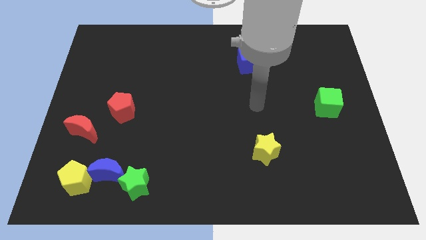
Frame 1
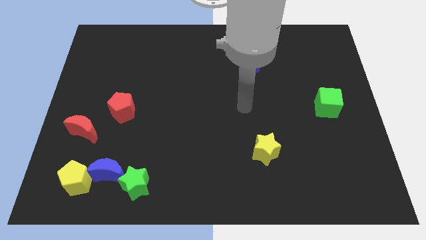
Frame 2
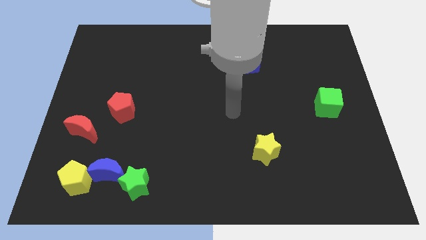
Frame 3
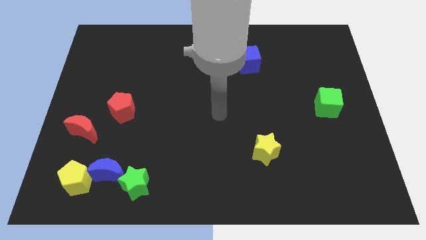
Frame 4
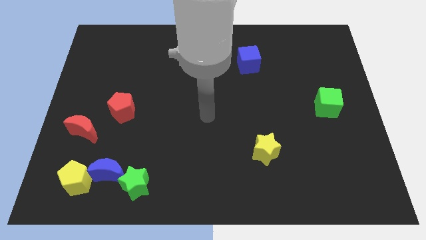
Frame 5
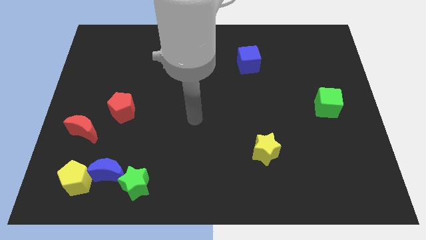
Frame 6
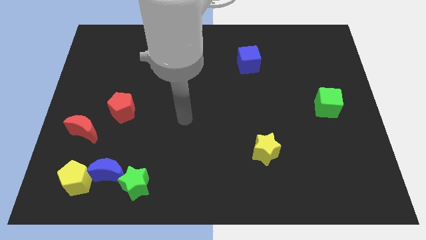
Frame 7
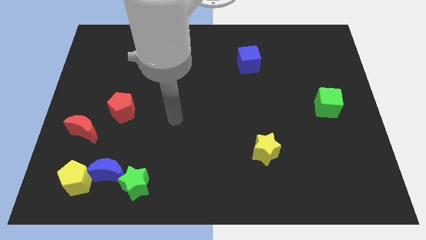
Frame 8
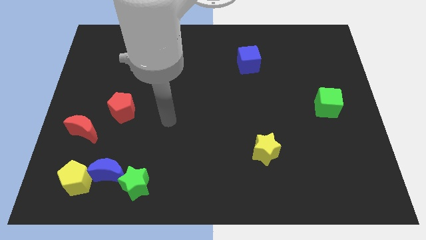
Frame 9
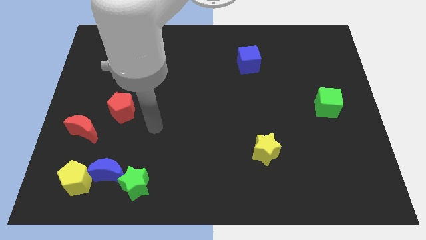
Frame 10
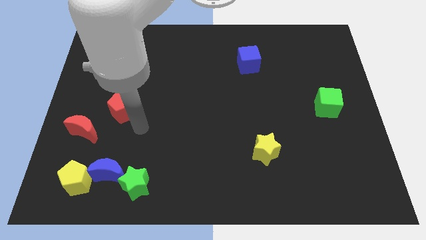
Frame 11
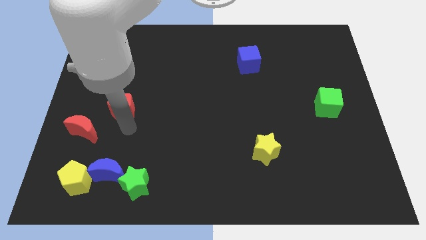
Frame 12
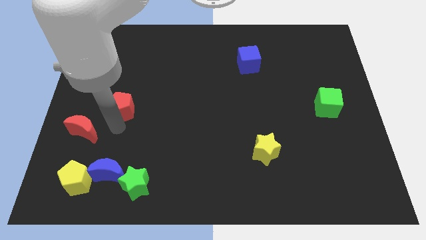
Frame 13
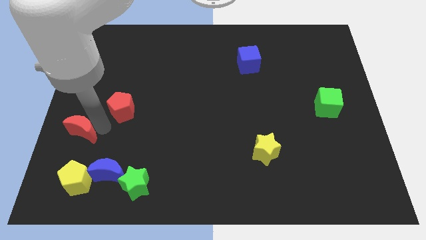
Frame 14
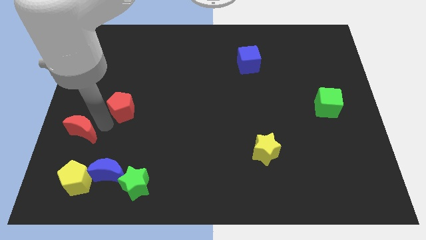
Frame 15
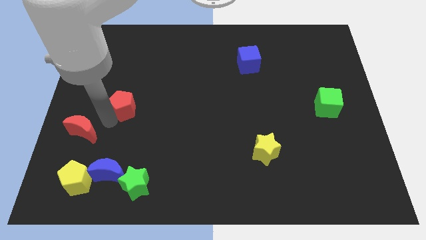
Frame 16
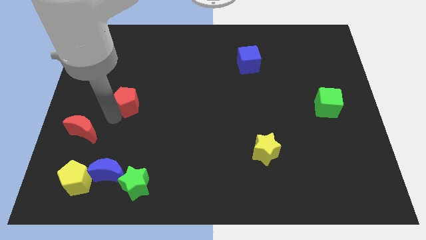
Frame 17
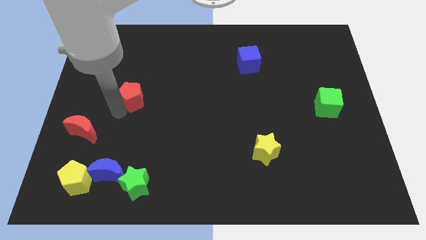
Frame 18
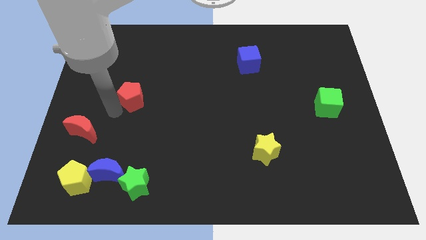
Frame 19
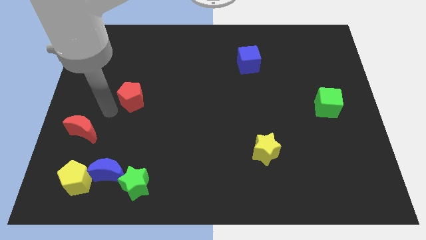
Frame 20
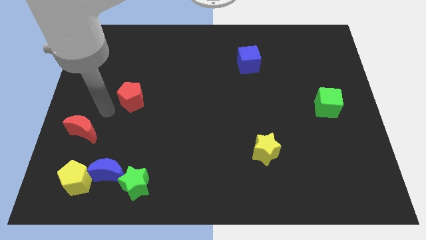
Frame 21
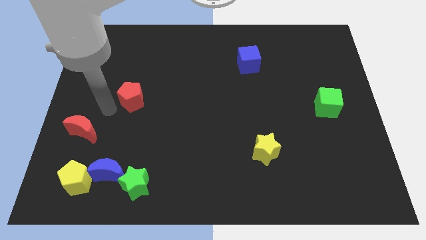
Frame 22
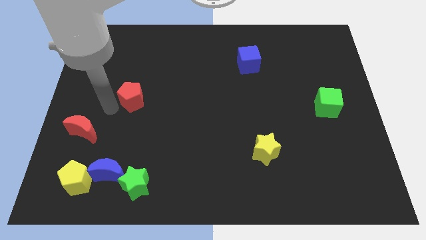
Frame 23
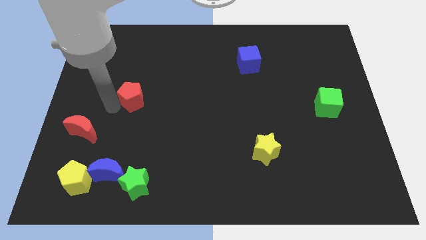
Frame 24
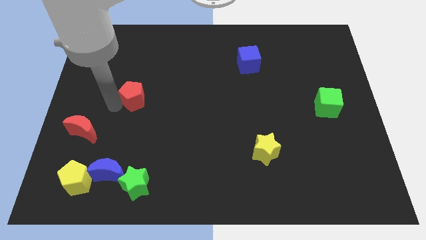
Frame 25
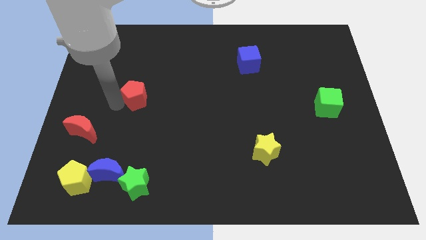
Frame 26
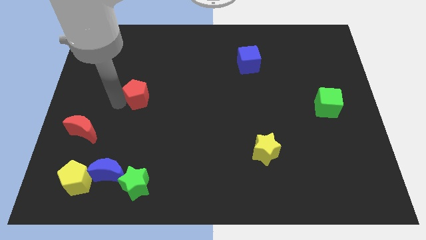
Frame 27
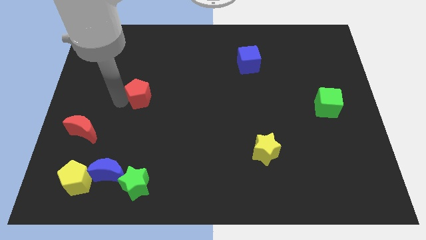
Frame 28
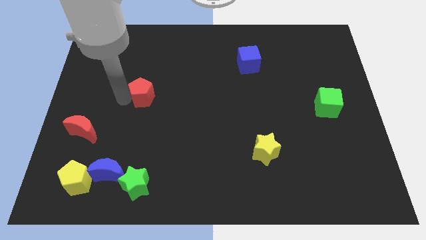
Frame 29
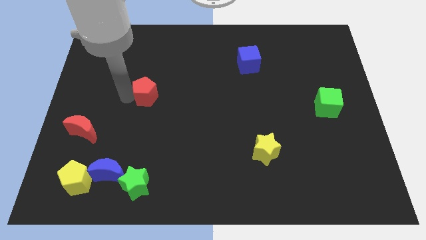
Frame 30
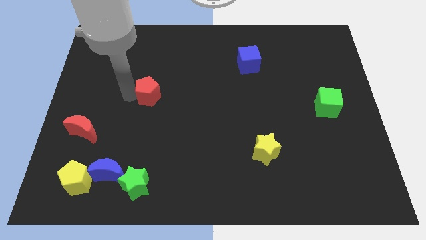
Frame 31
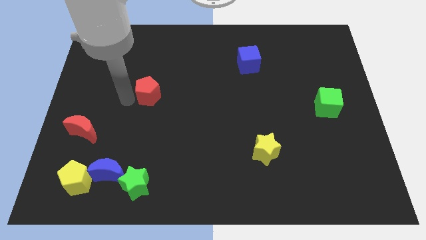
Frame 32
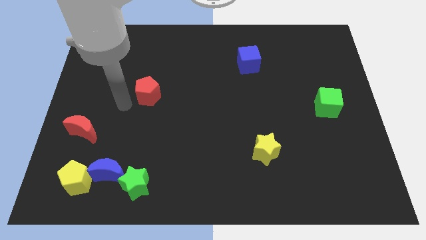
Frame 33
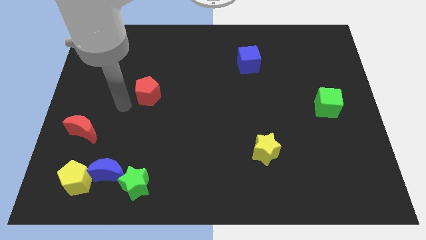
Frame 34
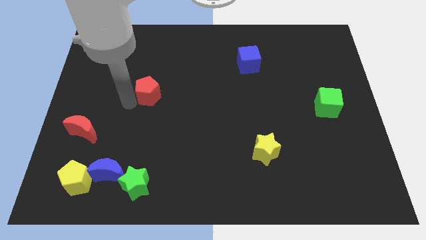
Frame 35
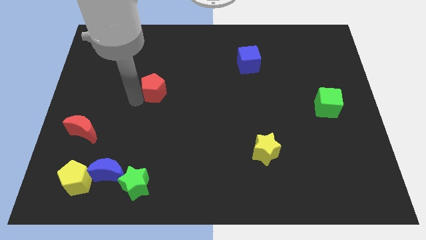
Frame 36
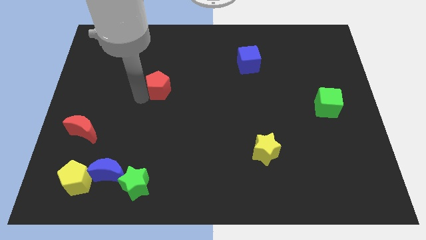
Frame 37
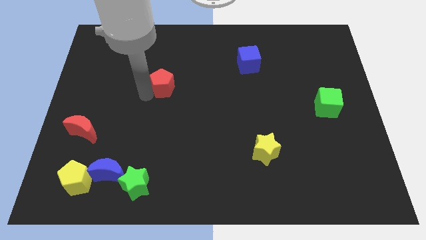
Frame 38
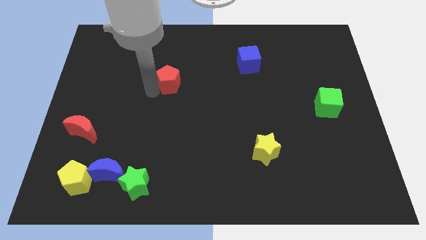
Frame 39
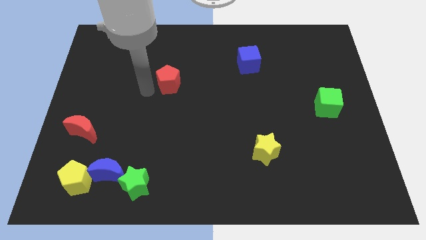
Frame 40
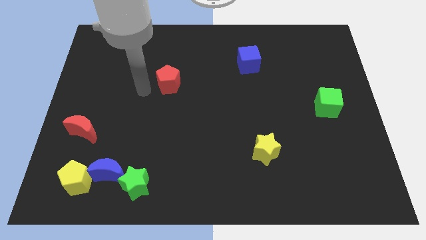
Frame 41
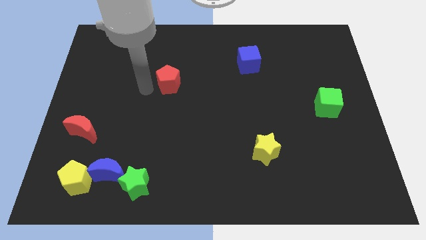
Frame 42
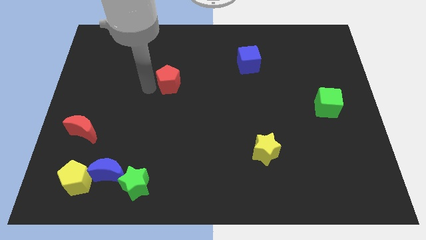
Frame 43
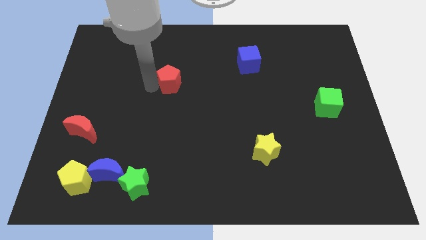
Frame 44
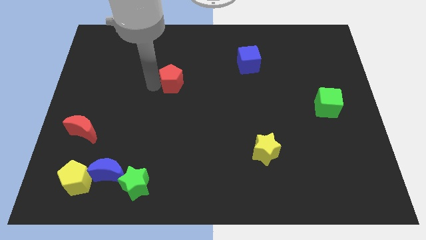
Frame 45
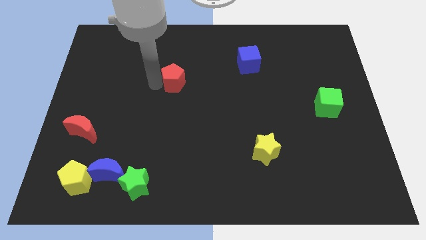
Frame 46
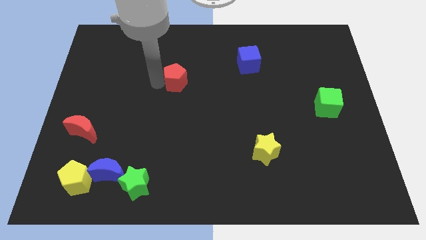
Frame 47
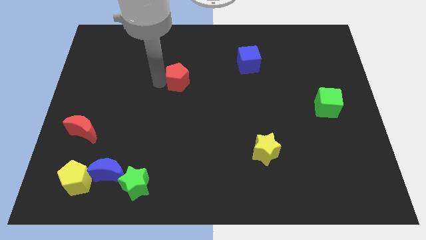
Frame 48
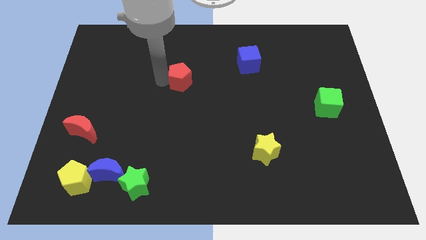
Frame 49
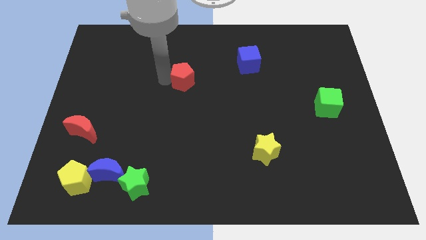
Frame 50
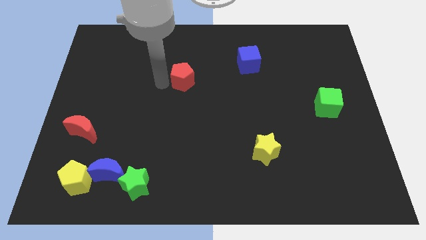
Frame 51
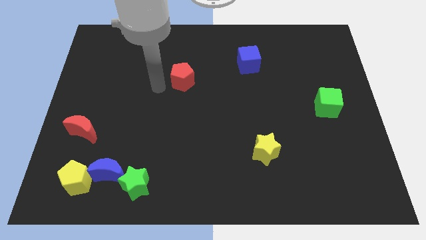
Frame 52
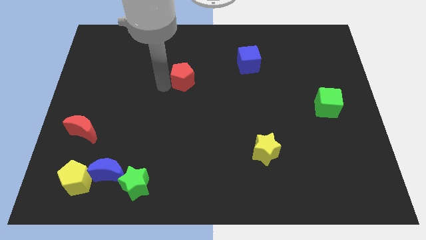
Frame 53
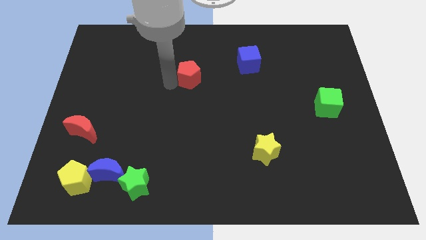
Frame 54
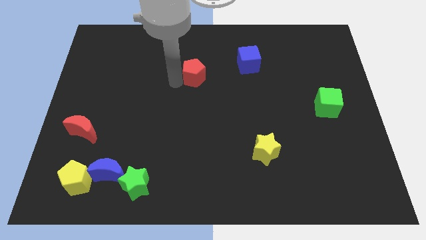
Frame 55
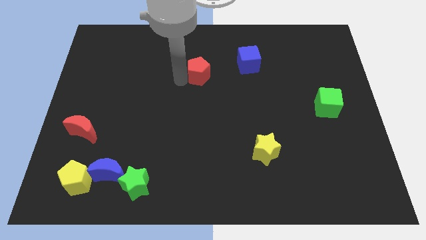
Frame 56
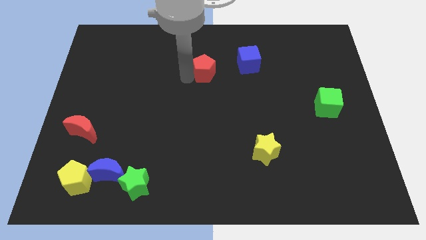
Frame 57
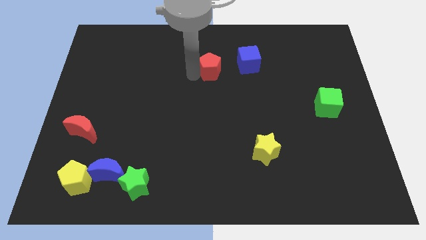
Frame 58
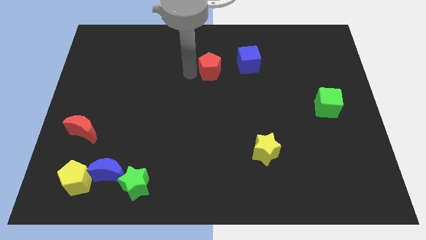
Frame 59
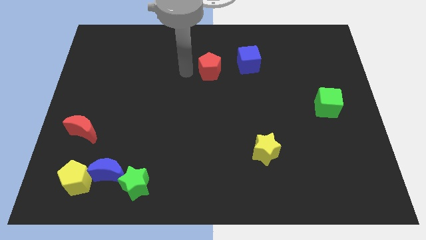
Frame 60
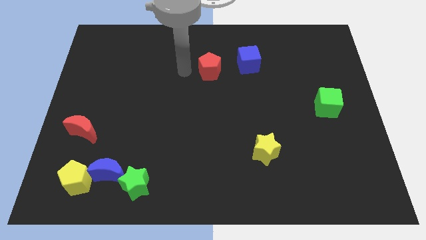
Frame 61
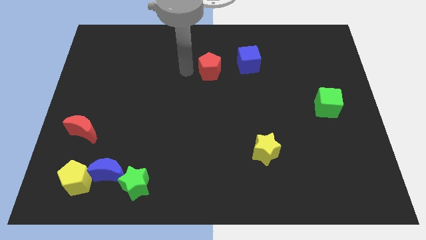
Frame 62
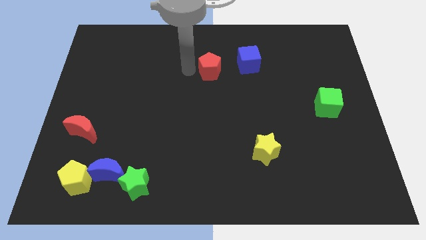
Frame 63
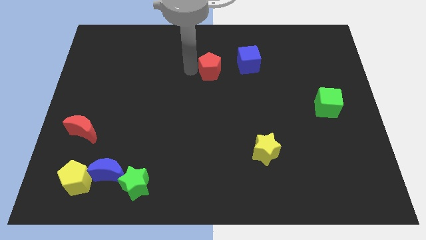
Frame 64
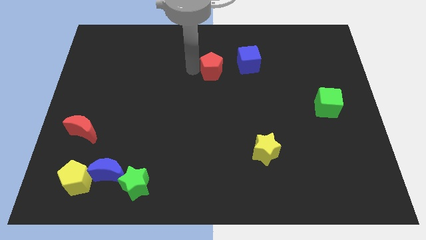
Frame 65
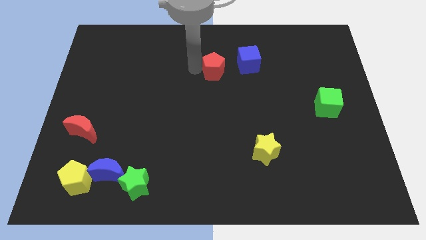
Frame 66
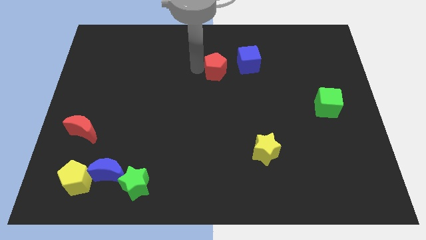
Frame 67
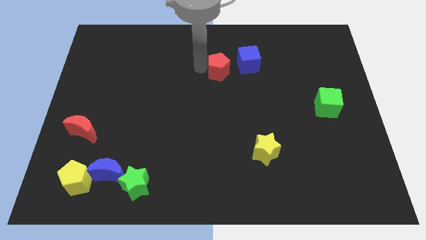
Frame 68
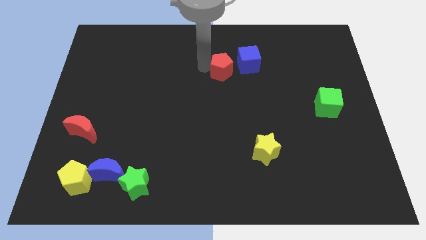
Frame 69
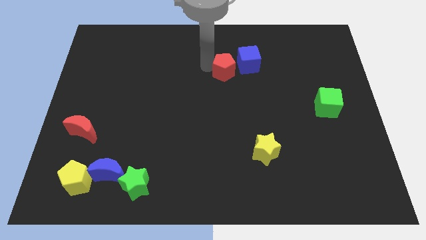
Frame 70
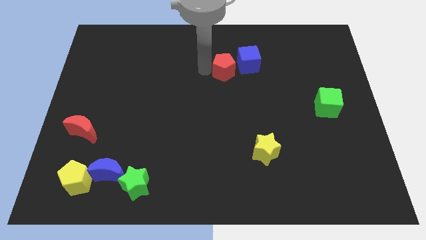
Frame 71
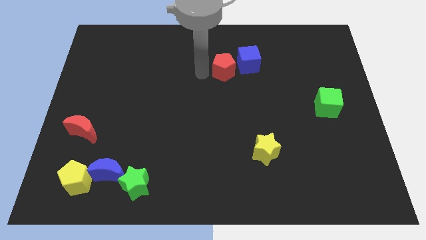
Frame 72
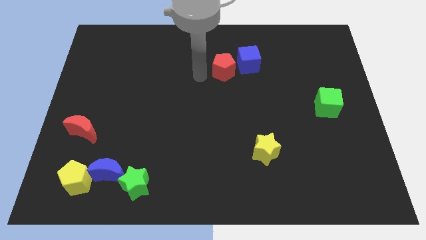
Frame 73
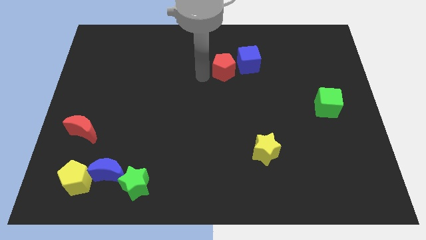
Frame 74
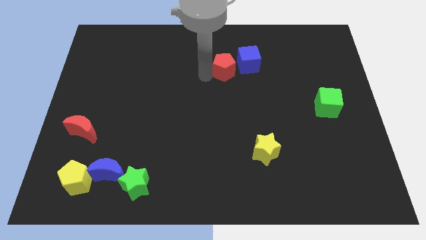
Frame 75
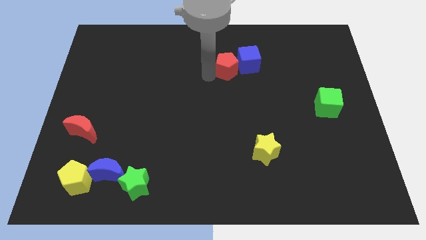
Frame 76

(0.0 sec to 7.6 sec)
put the red pentagon to the blue cube
